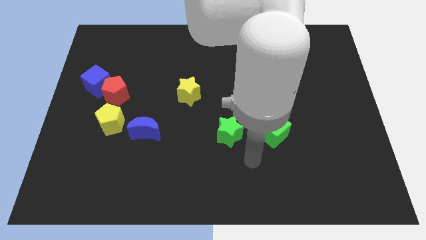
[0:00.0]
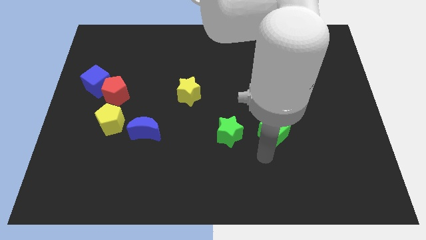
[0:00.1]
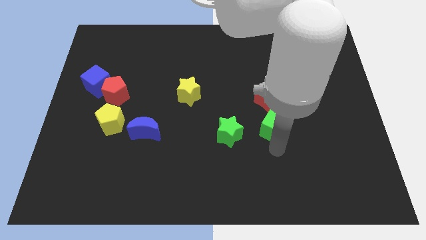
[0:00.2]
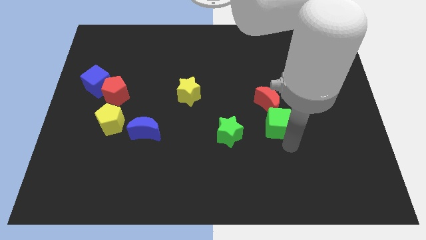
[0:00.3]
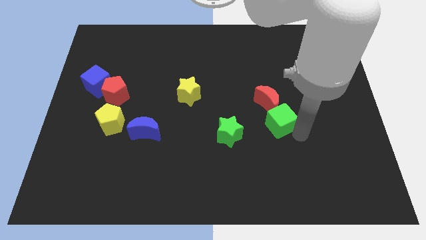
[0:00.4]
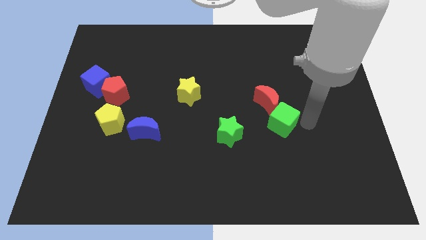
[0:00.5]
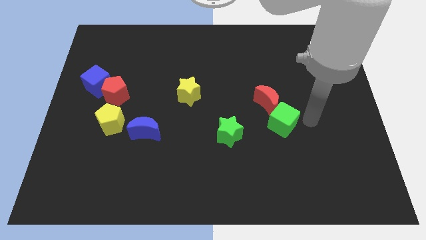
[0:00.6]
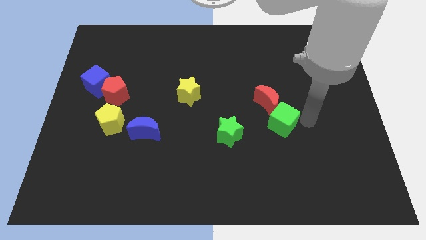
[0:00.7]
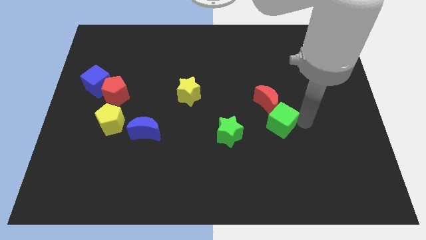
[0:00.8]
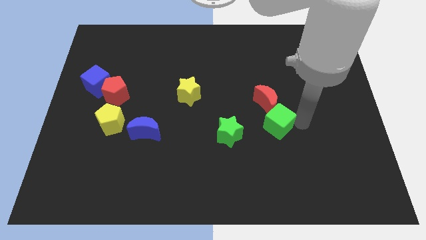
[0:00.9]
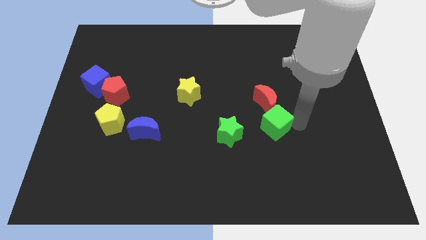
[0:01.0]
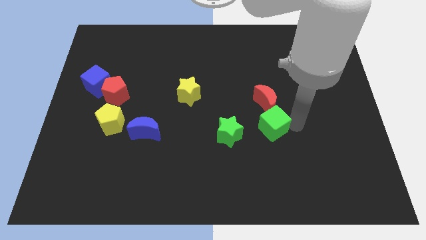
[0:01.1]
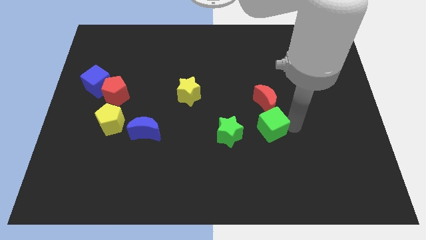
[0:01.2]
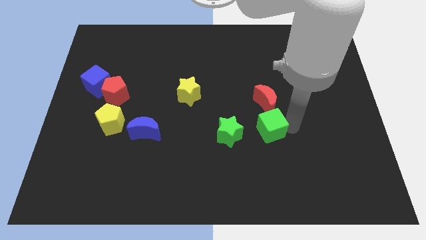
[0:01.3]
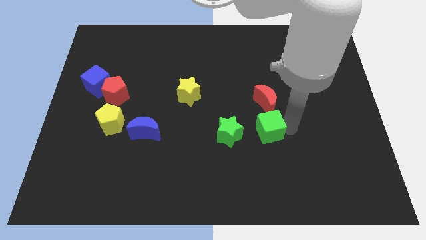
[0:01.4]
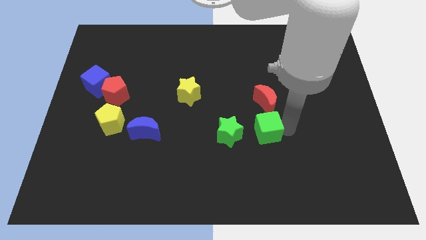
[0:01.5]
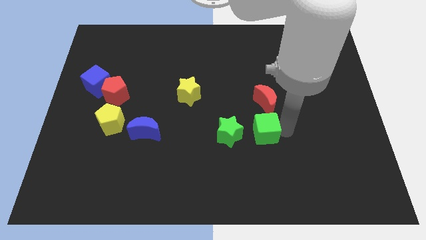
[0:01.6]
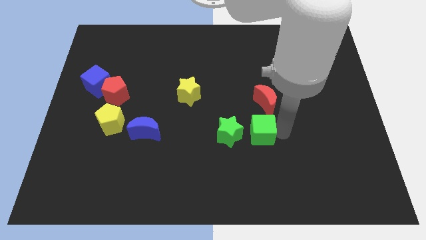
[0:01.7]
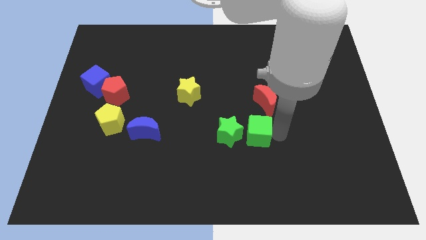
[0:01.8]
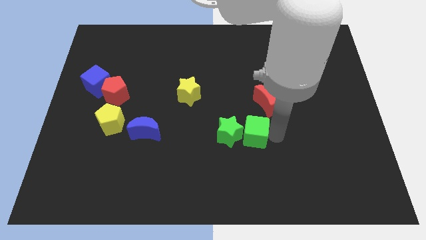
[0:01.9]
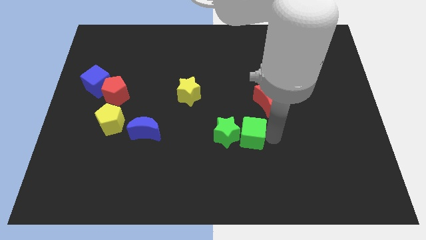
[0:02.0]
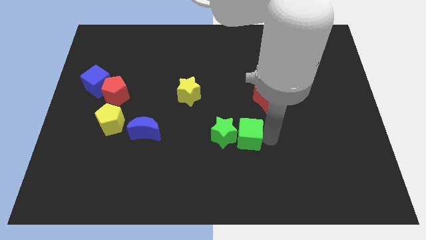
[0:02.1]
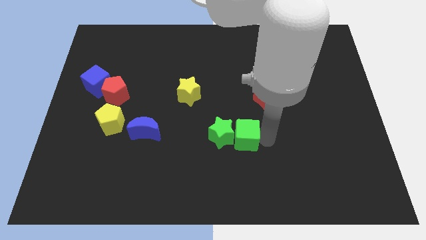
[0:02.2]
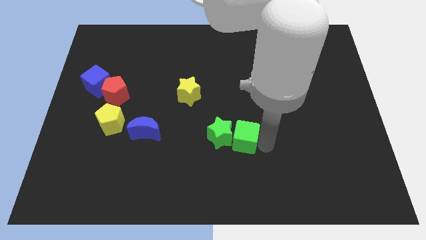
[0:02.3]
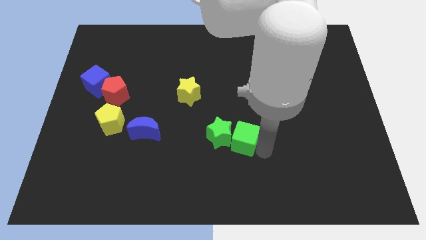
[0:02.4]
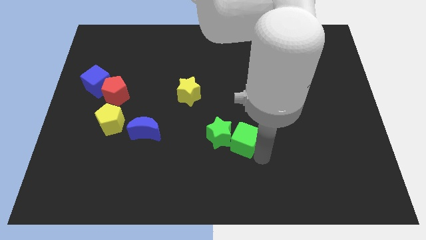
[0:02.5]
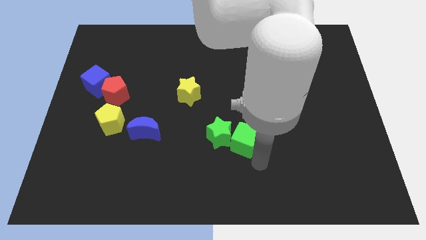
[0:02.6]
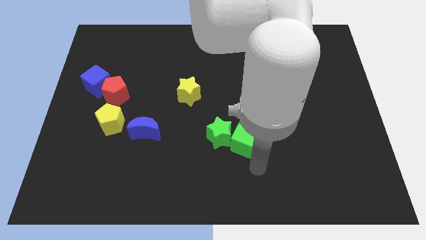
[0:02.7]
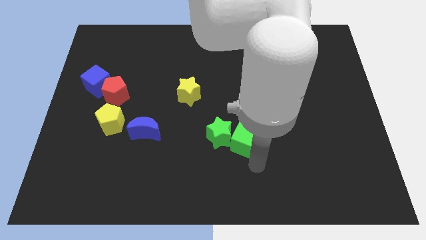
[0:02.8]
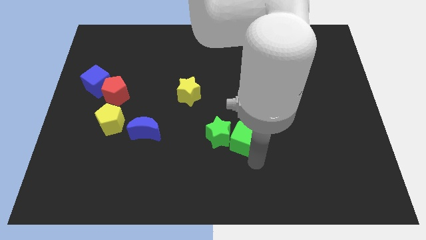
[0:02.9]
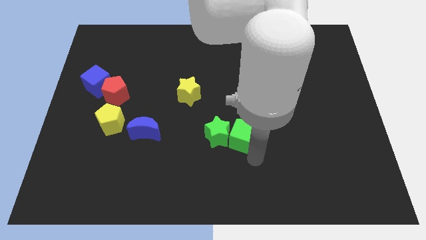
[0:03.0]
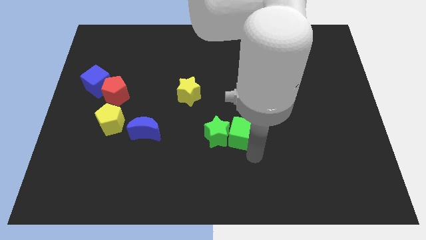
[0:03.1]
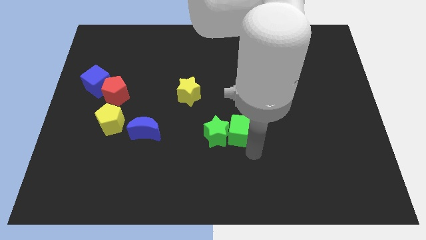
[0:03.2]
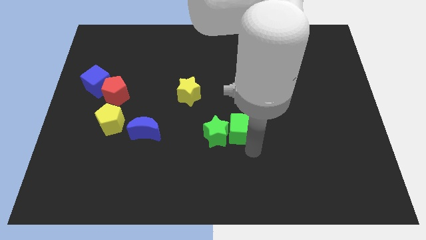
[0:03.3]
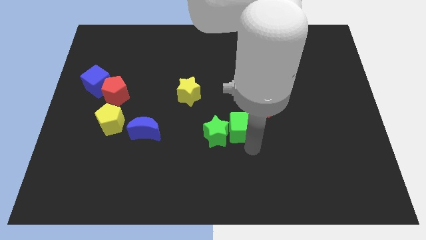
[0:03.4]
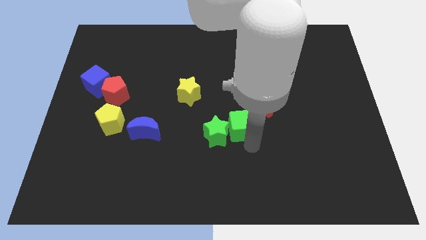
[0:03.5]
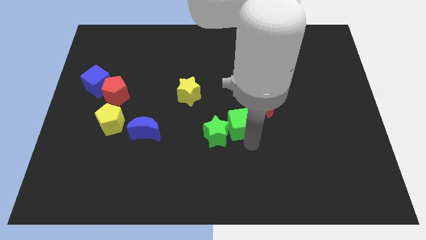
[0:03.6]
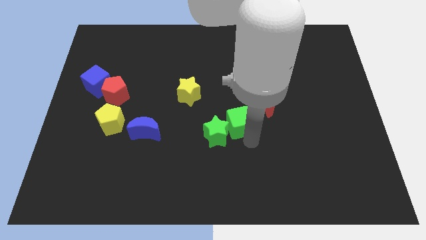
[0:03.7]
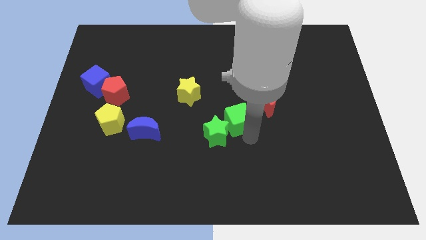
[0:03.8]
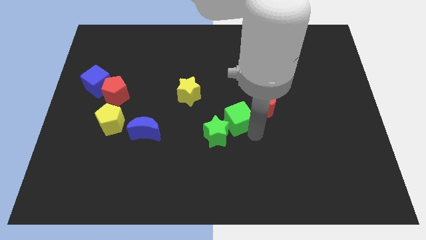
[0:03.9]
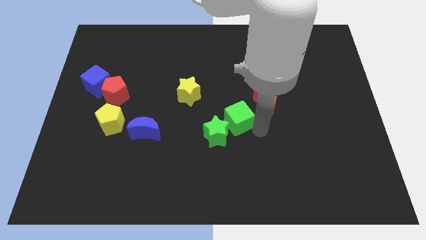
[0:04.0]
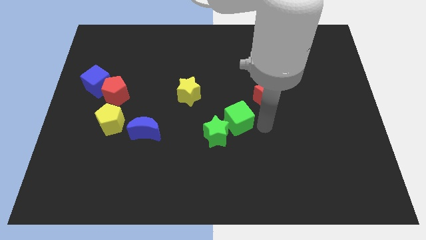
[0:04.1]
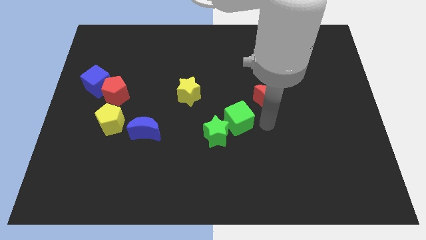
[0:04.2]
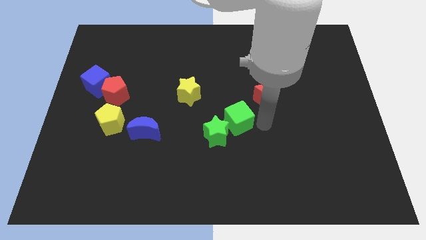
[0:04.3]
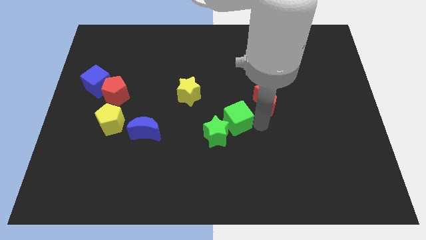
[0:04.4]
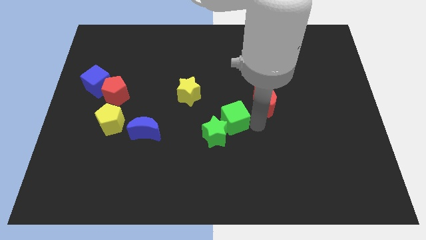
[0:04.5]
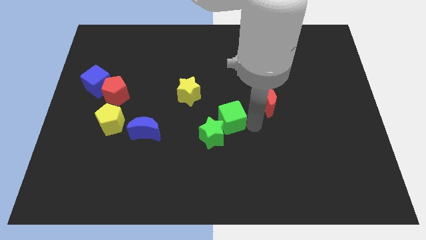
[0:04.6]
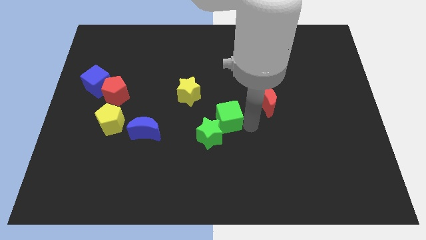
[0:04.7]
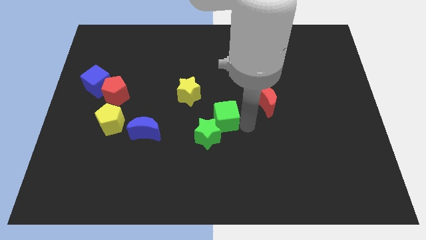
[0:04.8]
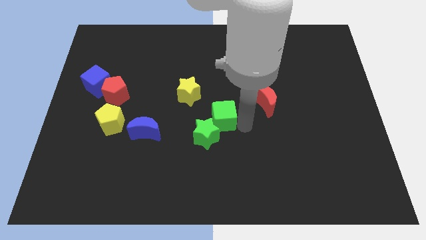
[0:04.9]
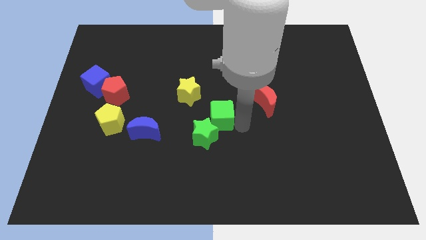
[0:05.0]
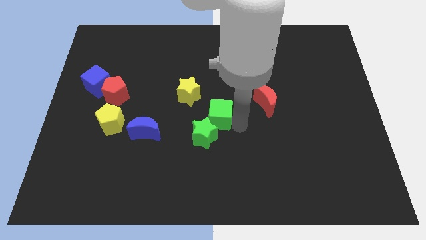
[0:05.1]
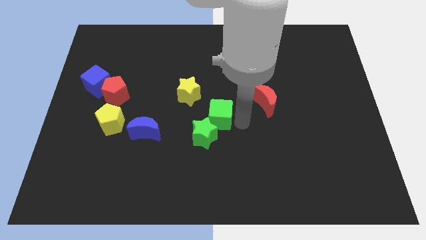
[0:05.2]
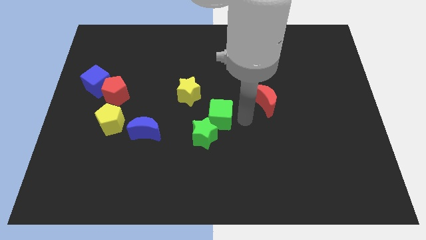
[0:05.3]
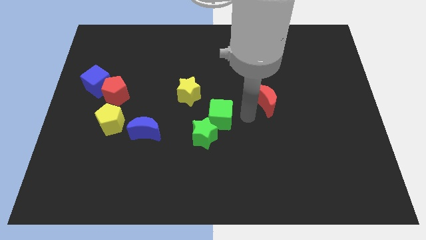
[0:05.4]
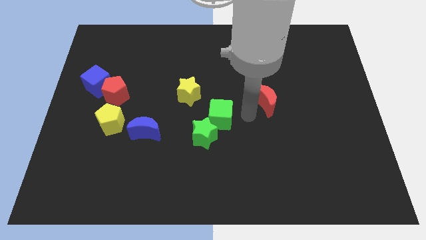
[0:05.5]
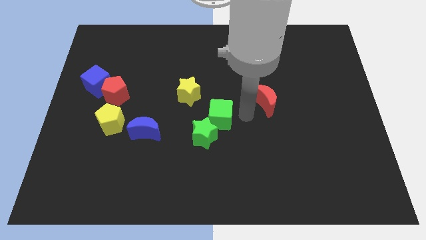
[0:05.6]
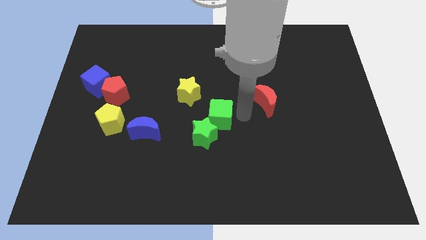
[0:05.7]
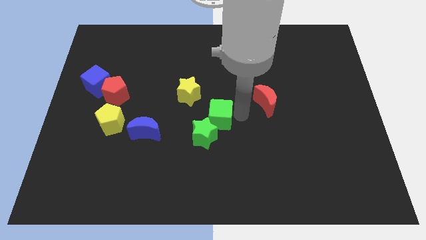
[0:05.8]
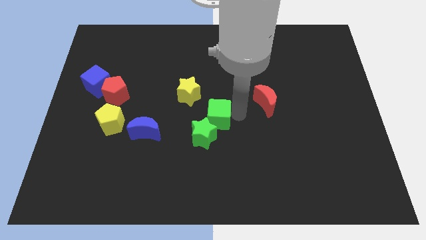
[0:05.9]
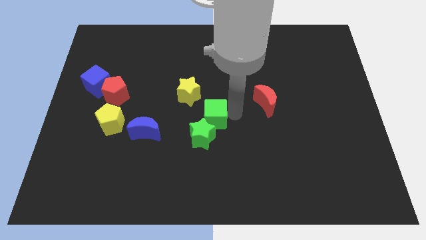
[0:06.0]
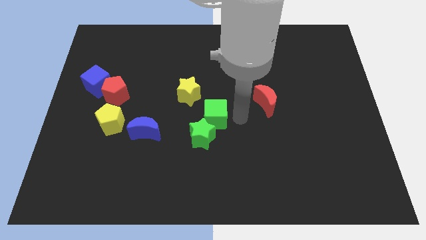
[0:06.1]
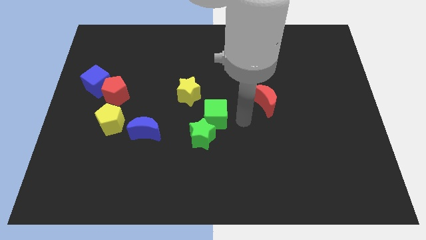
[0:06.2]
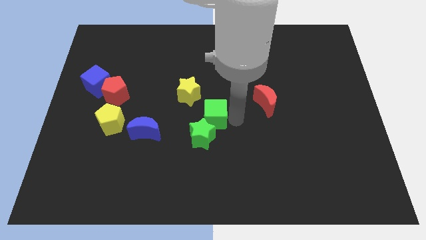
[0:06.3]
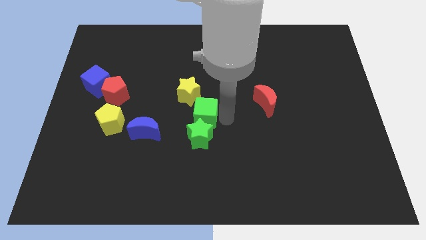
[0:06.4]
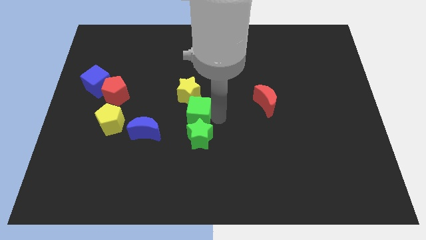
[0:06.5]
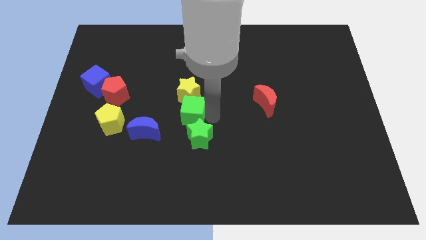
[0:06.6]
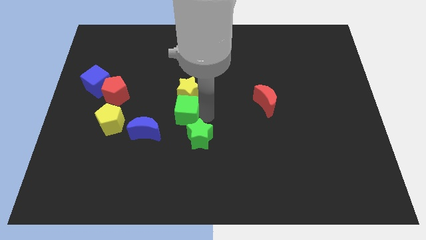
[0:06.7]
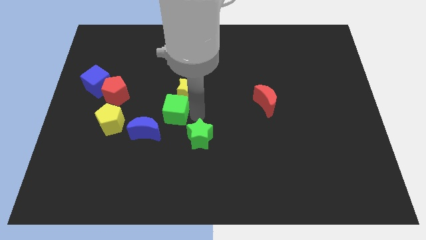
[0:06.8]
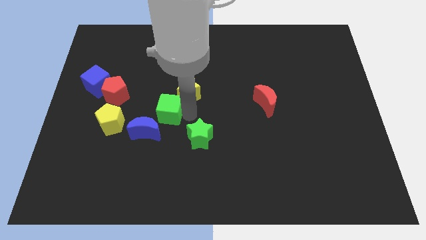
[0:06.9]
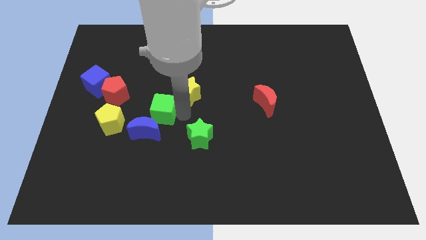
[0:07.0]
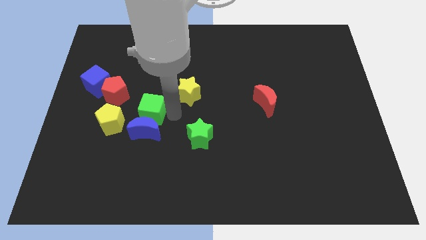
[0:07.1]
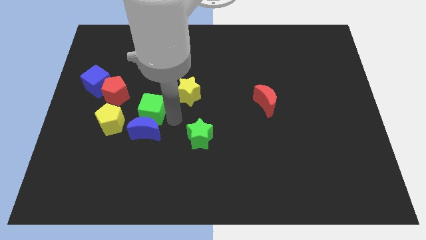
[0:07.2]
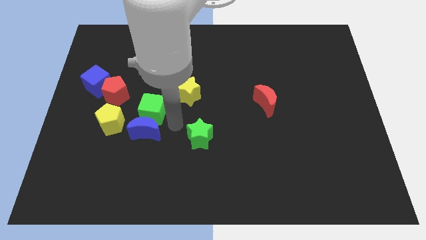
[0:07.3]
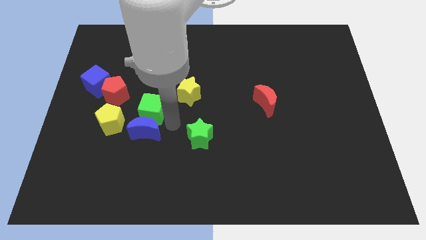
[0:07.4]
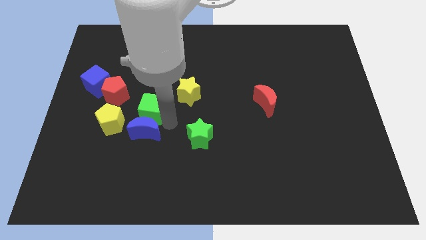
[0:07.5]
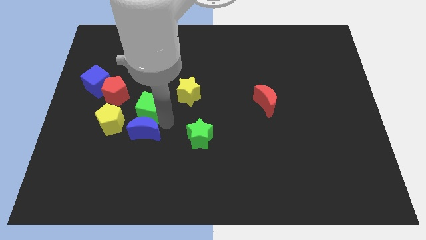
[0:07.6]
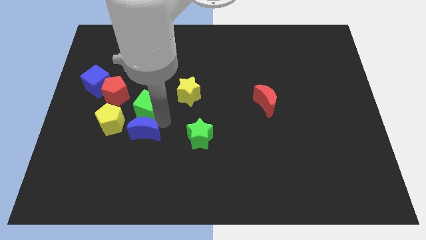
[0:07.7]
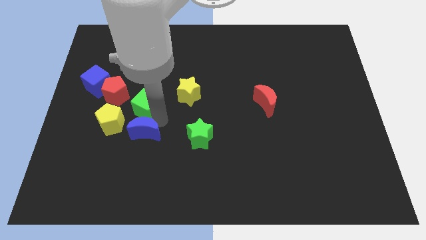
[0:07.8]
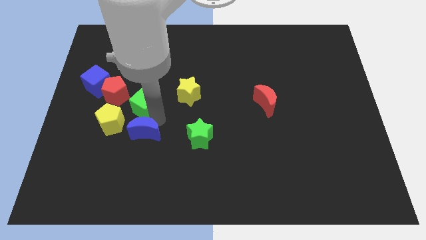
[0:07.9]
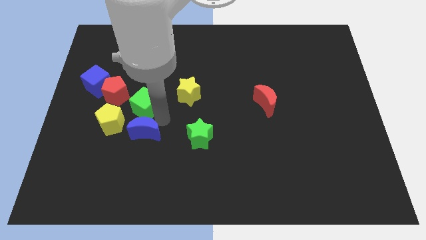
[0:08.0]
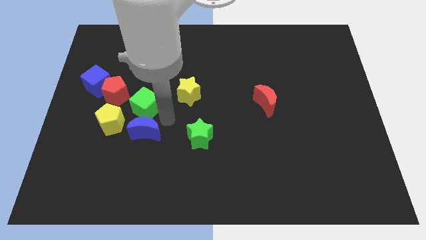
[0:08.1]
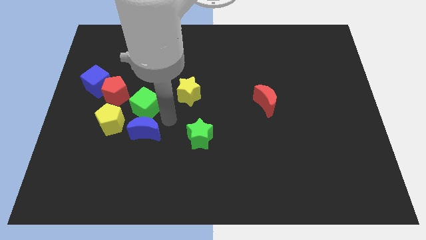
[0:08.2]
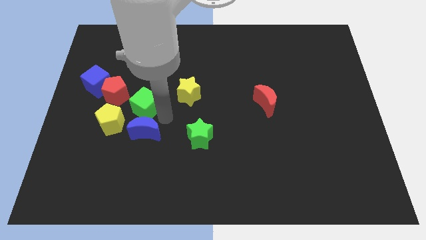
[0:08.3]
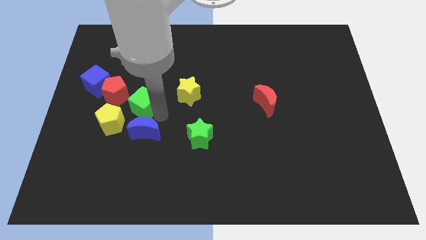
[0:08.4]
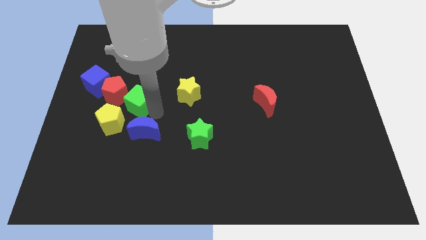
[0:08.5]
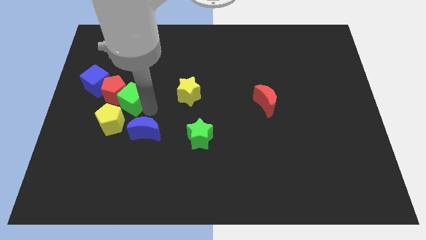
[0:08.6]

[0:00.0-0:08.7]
move the green cube to the red pentagon
